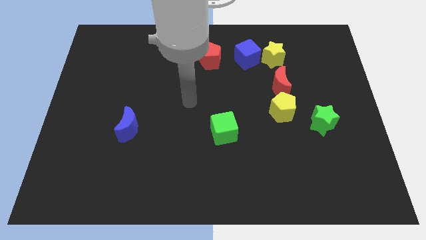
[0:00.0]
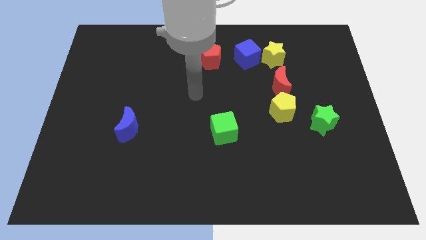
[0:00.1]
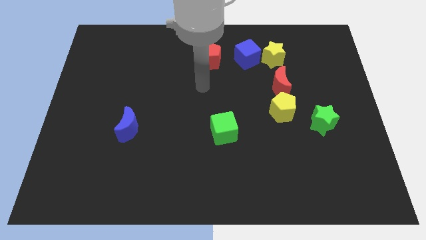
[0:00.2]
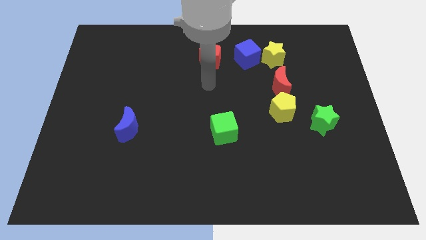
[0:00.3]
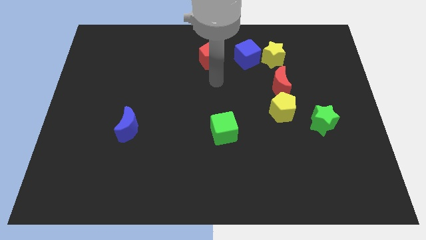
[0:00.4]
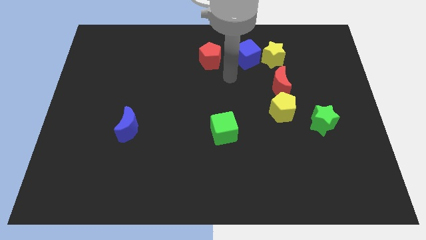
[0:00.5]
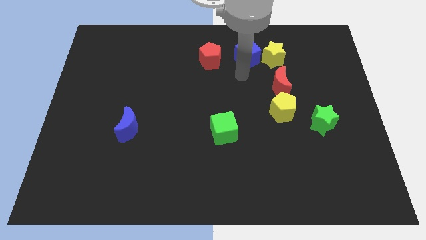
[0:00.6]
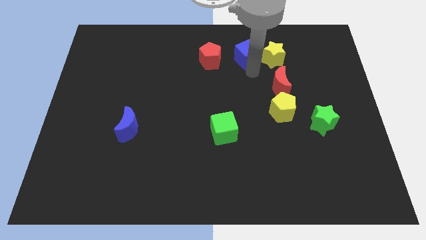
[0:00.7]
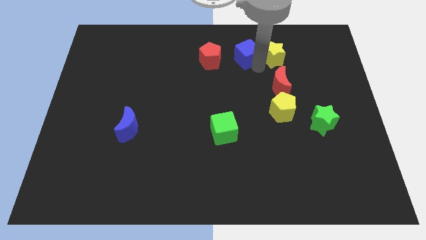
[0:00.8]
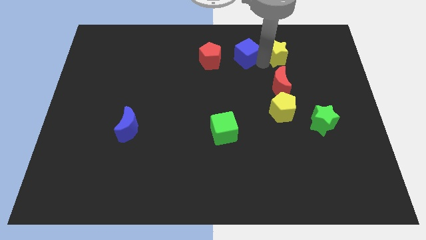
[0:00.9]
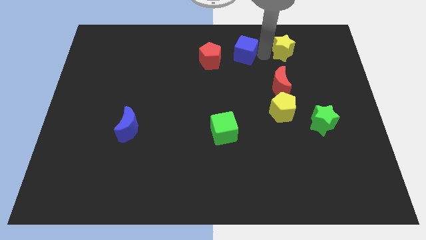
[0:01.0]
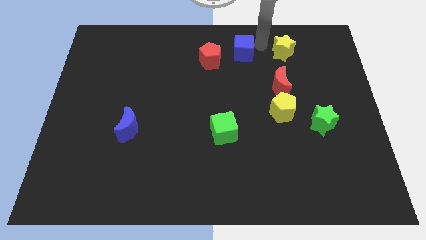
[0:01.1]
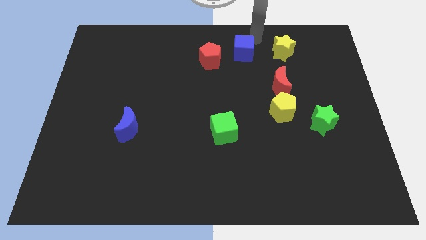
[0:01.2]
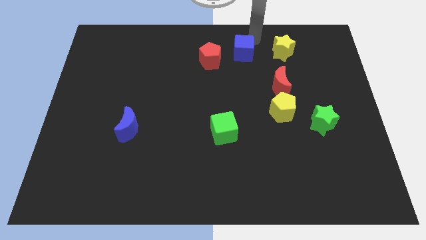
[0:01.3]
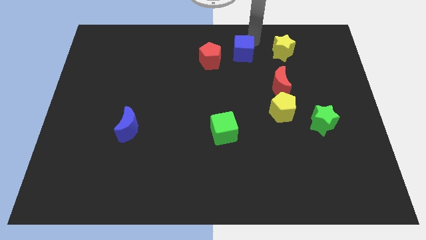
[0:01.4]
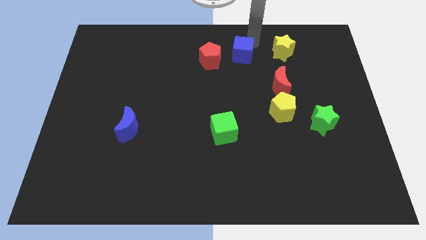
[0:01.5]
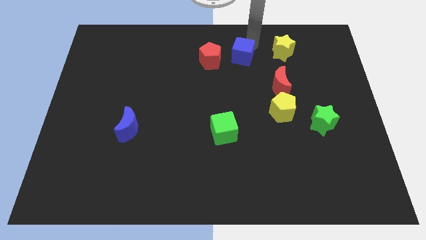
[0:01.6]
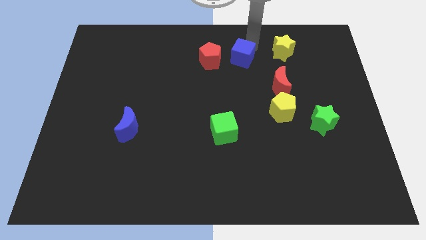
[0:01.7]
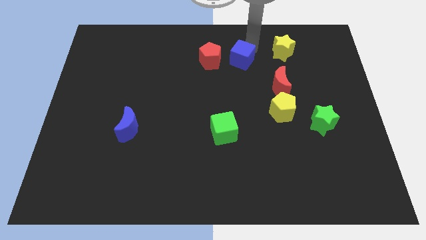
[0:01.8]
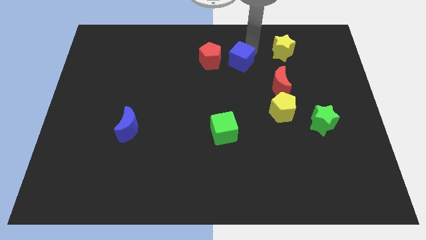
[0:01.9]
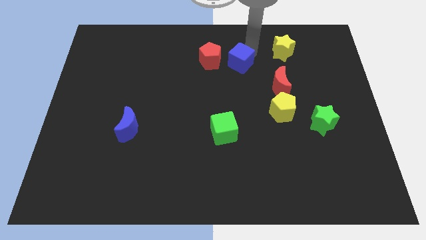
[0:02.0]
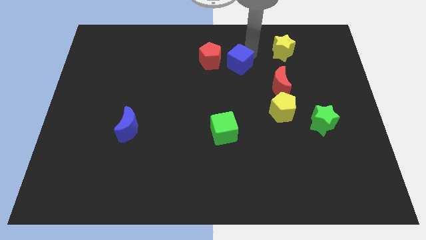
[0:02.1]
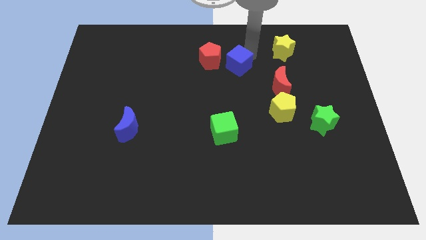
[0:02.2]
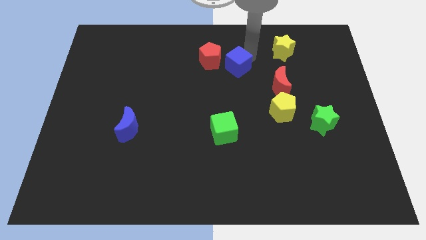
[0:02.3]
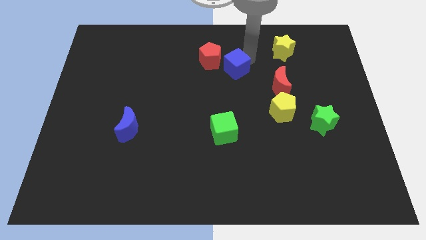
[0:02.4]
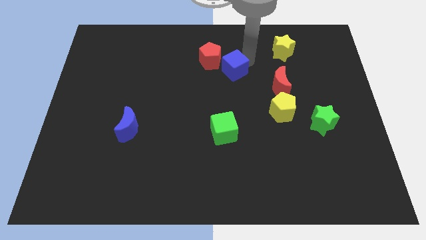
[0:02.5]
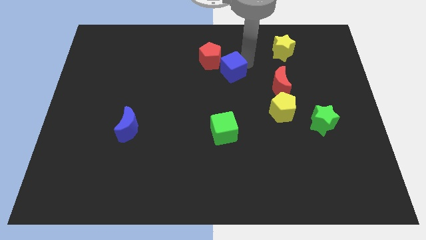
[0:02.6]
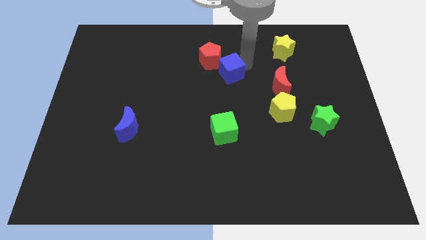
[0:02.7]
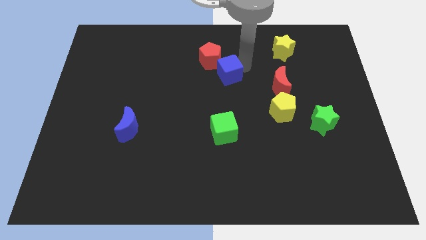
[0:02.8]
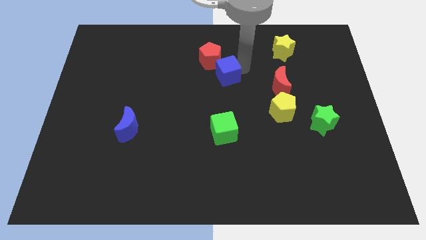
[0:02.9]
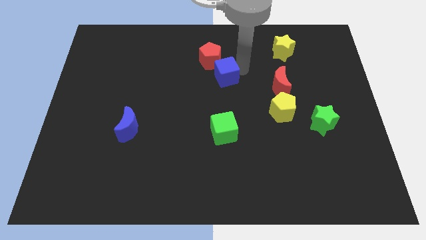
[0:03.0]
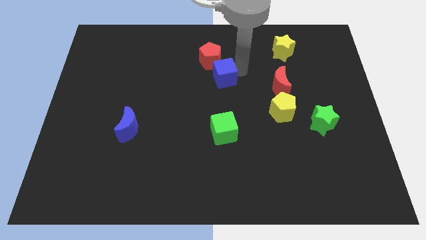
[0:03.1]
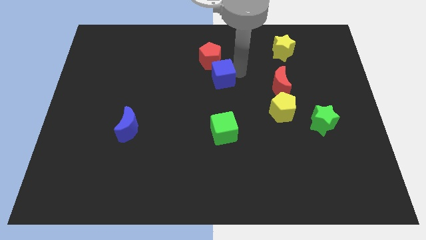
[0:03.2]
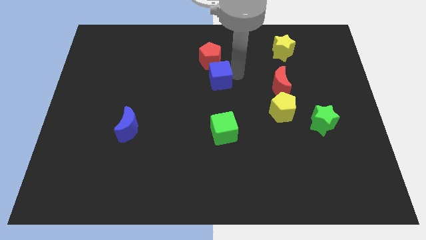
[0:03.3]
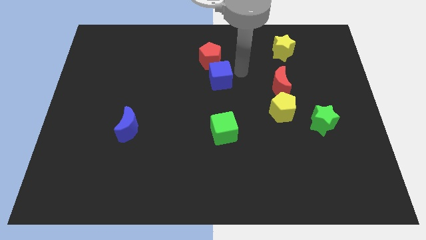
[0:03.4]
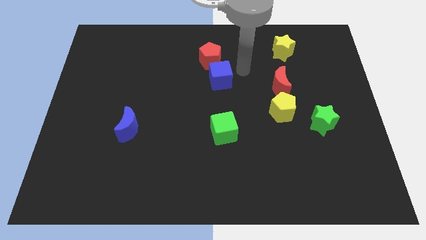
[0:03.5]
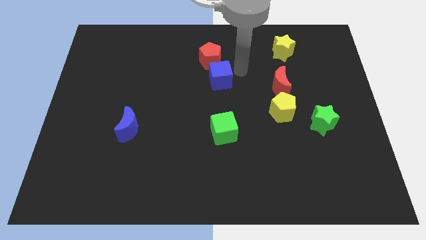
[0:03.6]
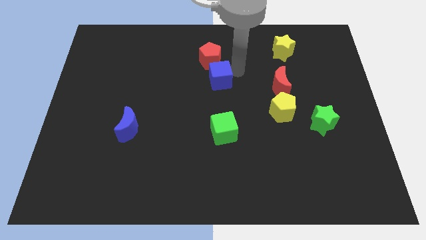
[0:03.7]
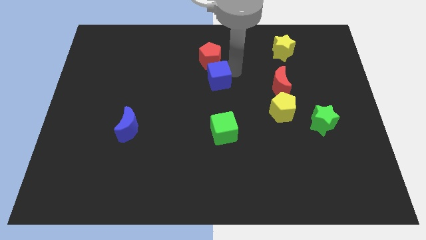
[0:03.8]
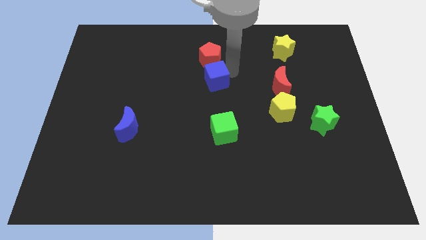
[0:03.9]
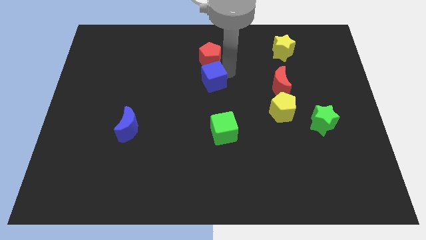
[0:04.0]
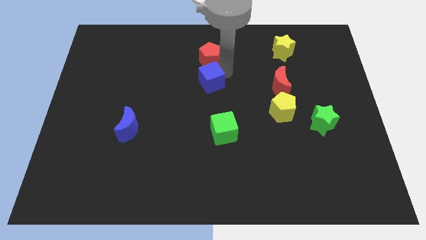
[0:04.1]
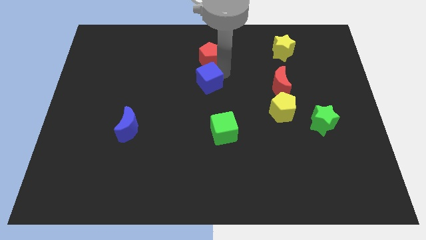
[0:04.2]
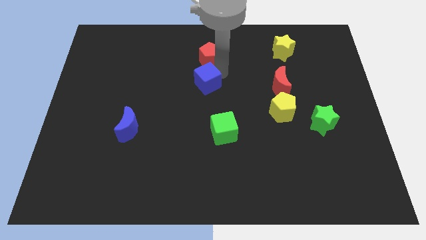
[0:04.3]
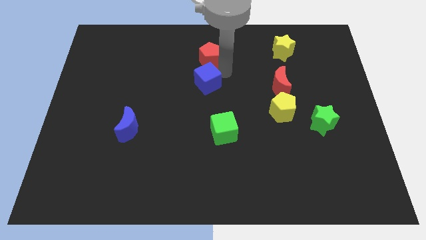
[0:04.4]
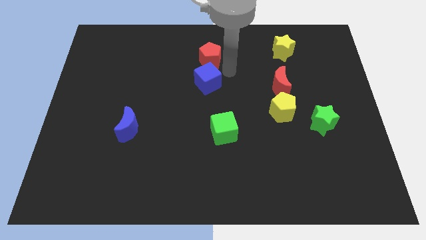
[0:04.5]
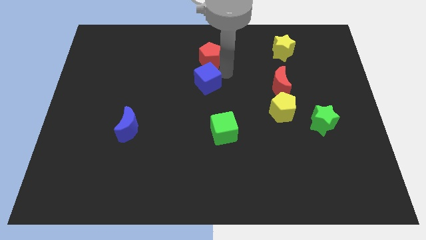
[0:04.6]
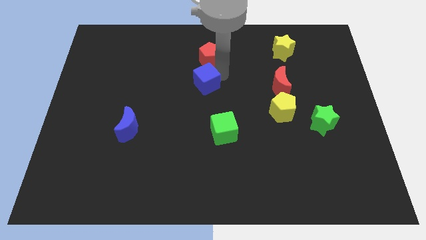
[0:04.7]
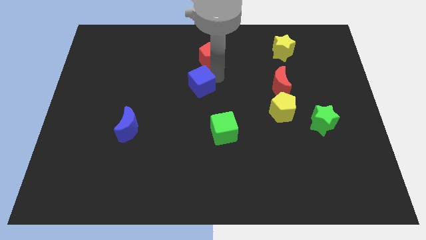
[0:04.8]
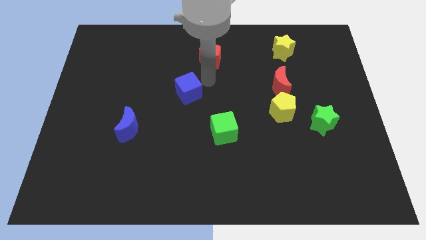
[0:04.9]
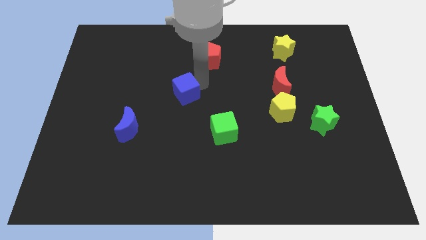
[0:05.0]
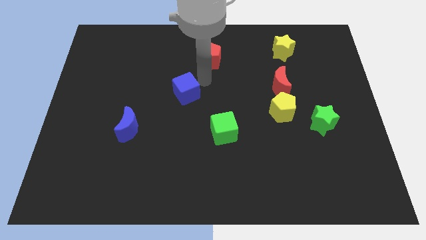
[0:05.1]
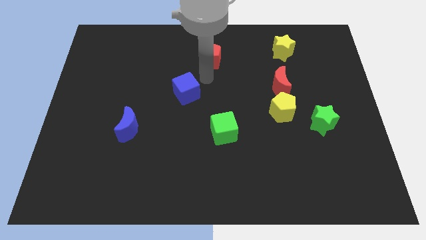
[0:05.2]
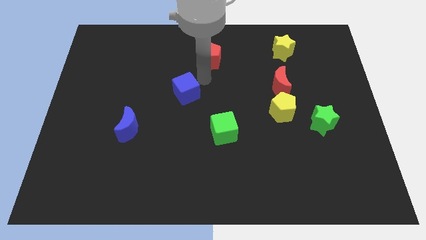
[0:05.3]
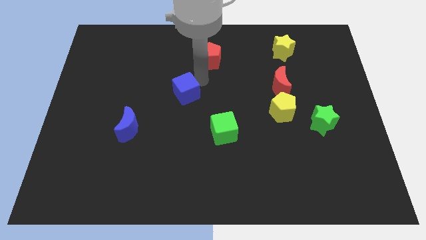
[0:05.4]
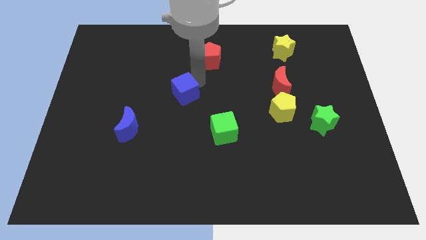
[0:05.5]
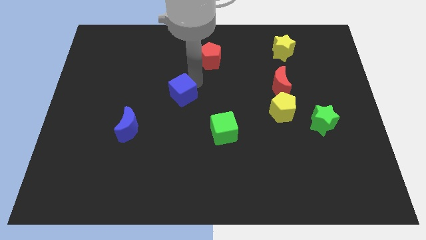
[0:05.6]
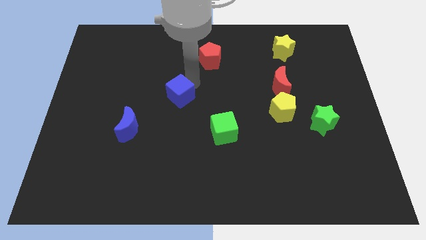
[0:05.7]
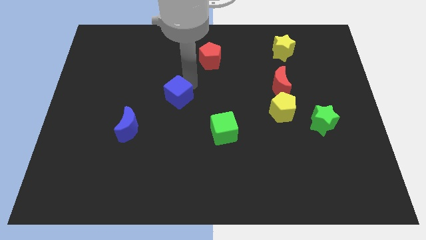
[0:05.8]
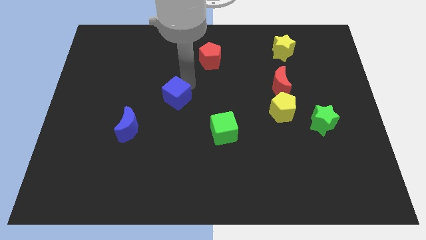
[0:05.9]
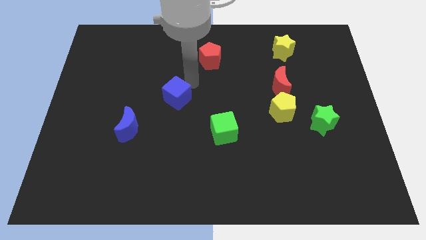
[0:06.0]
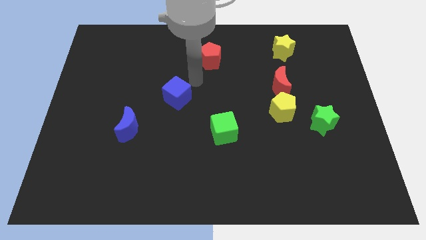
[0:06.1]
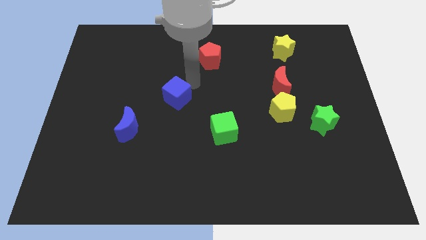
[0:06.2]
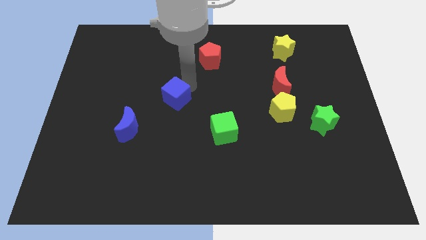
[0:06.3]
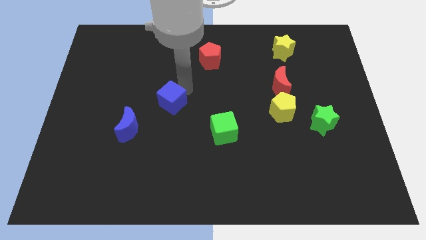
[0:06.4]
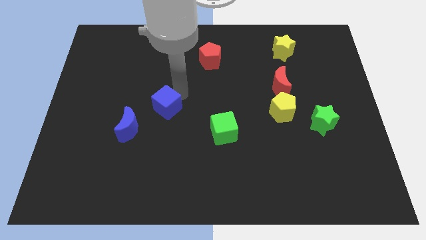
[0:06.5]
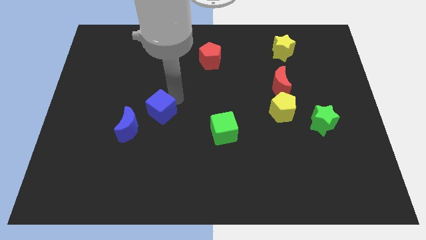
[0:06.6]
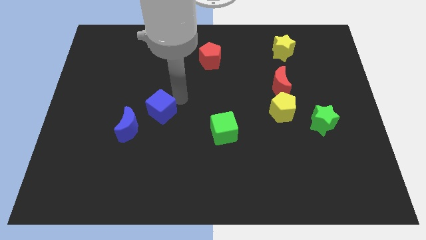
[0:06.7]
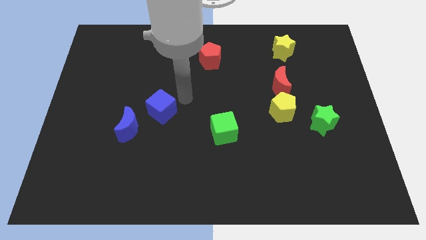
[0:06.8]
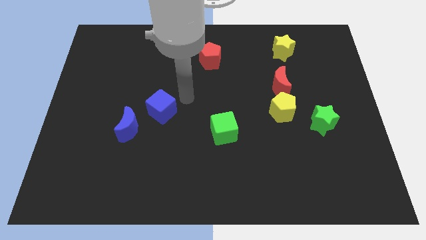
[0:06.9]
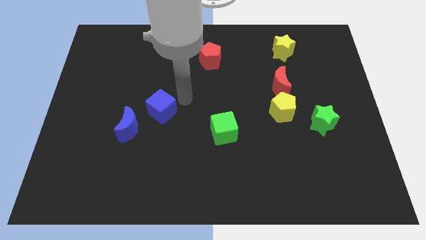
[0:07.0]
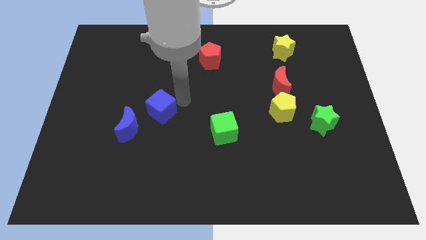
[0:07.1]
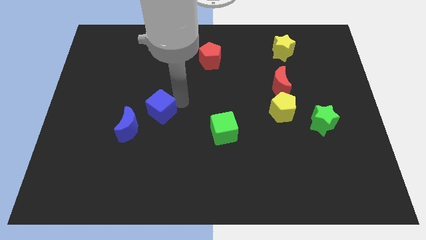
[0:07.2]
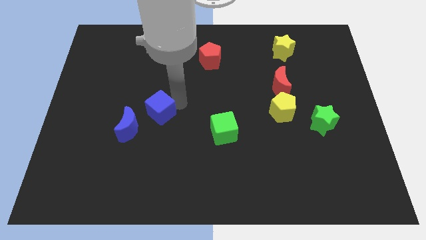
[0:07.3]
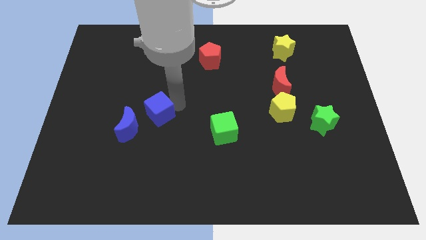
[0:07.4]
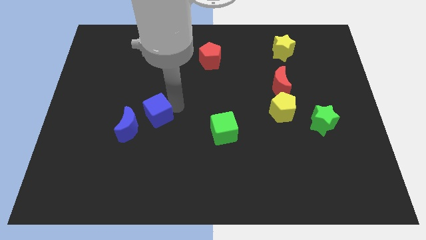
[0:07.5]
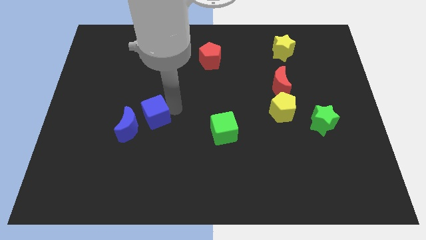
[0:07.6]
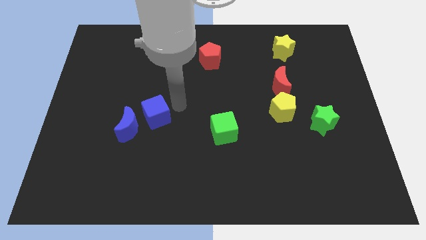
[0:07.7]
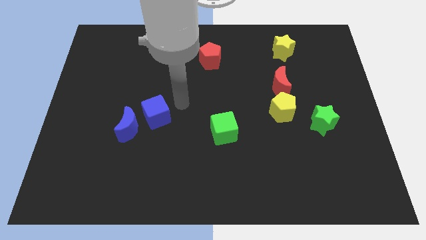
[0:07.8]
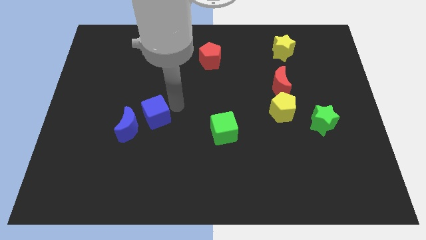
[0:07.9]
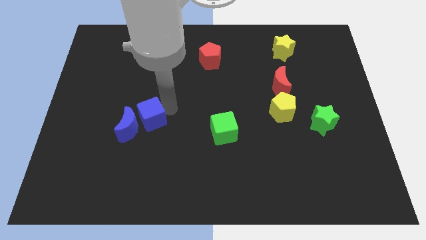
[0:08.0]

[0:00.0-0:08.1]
put the blue cube close to the blue moon
